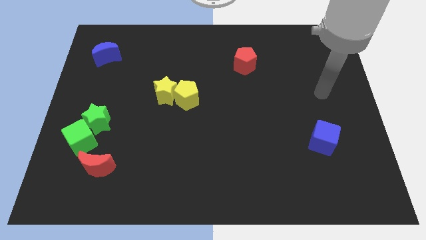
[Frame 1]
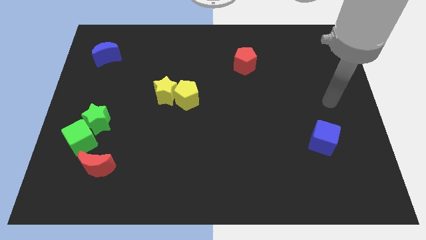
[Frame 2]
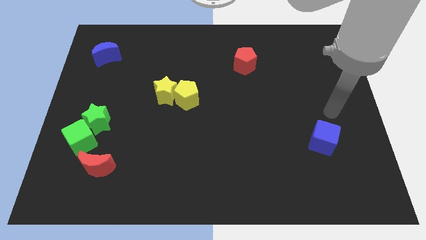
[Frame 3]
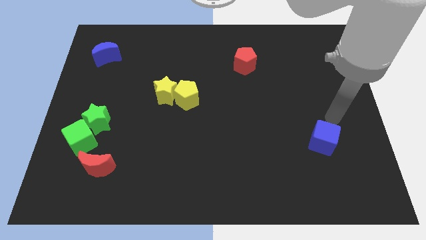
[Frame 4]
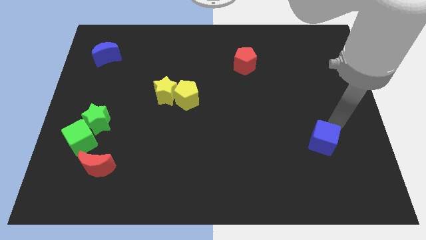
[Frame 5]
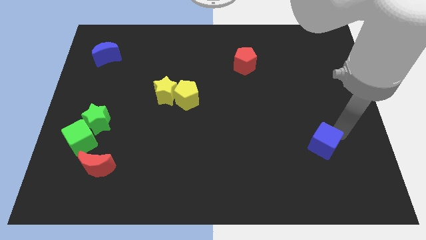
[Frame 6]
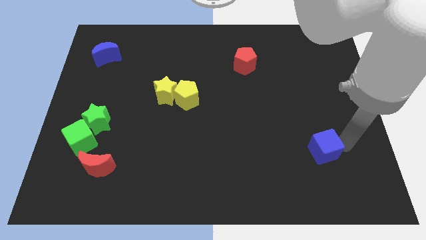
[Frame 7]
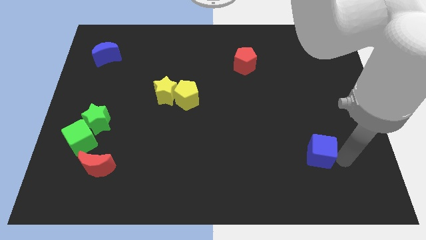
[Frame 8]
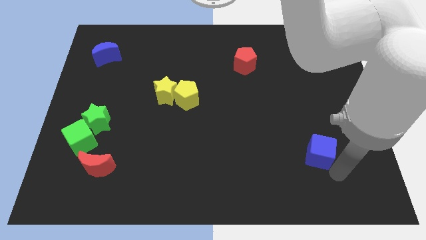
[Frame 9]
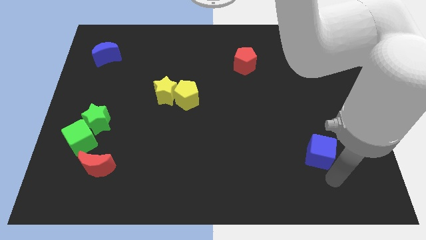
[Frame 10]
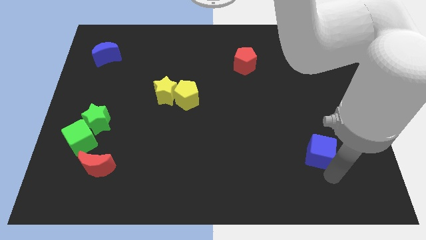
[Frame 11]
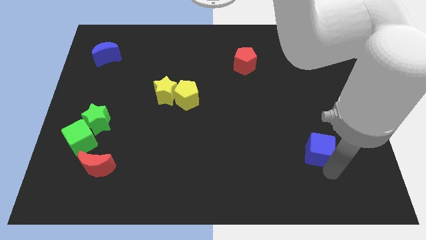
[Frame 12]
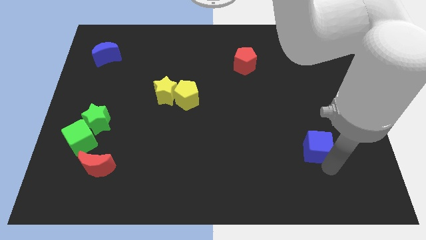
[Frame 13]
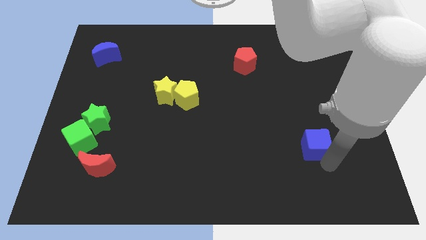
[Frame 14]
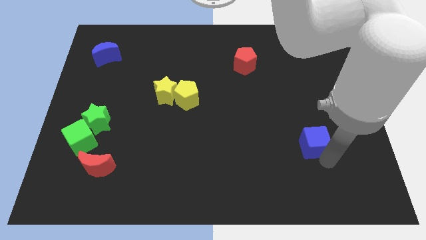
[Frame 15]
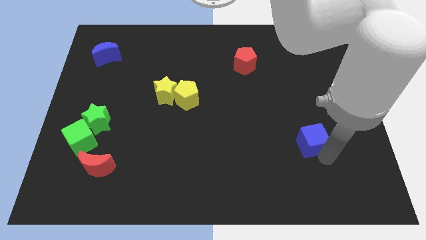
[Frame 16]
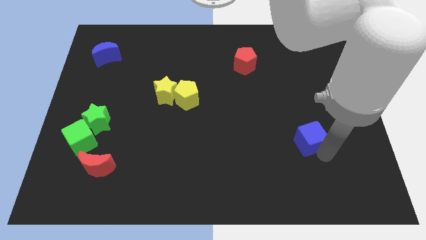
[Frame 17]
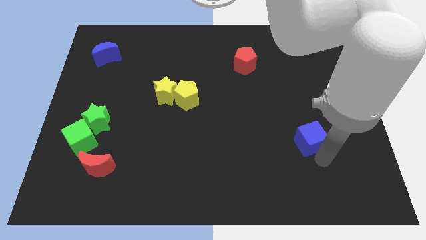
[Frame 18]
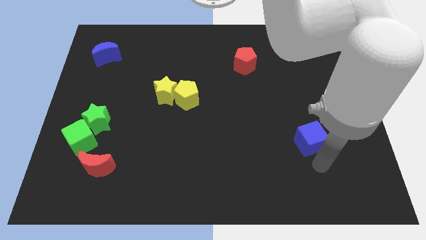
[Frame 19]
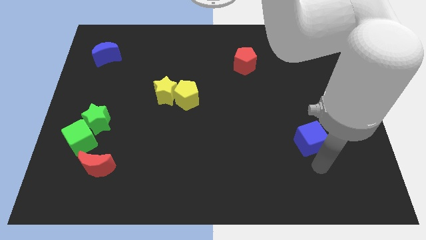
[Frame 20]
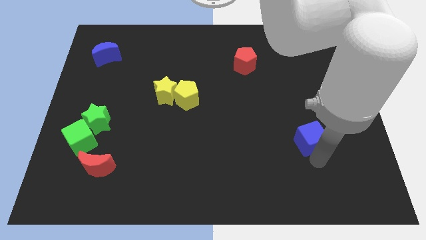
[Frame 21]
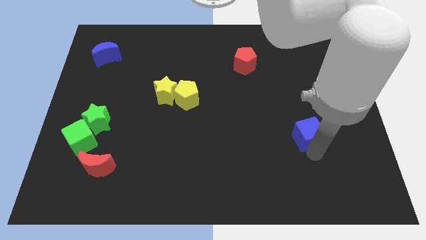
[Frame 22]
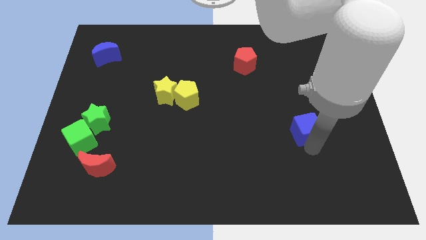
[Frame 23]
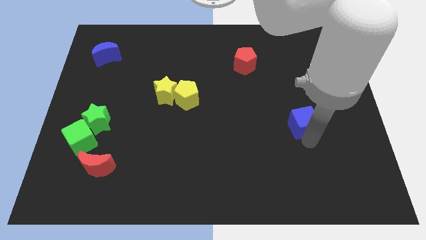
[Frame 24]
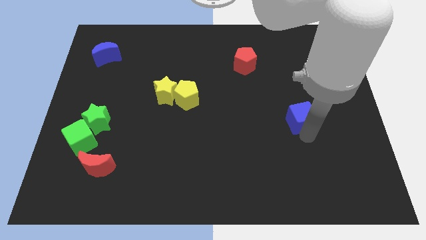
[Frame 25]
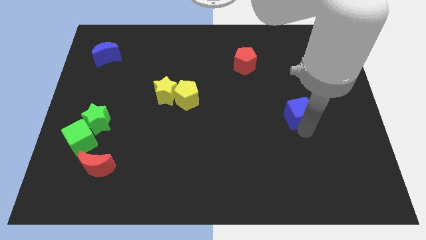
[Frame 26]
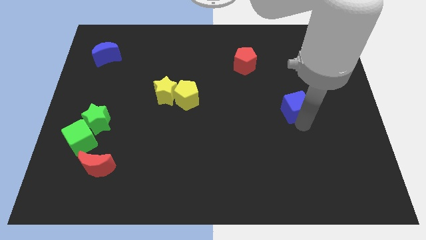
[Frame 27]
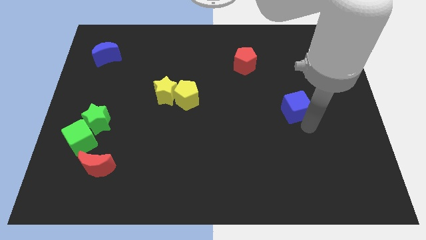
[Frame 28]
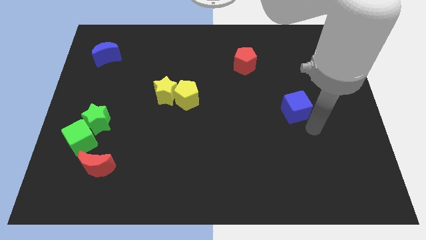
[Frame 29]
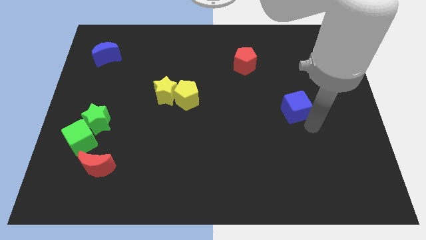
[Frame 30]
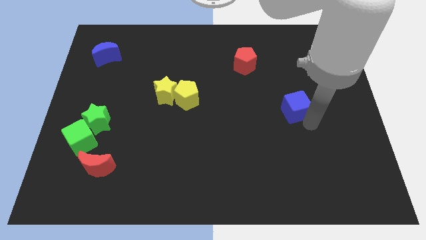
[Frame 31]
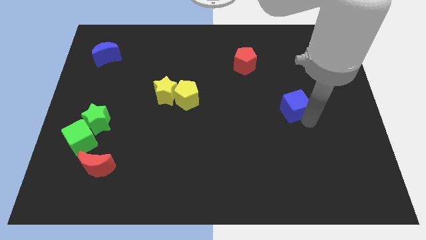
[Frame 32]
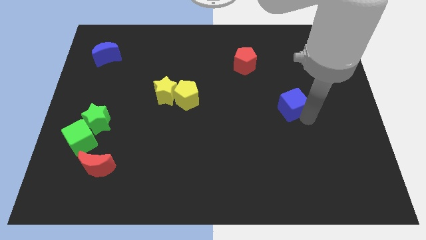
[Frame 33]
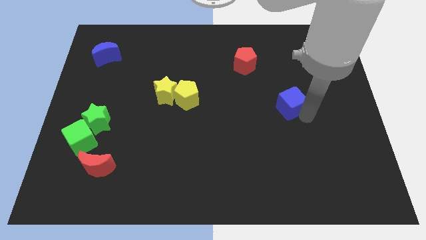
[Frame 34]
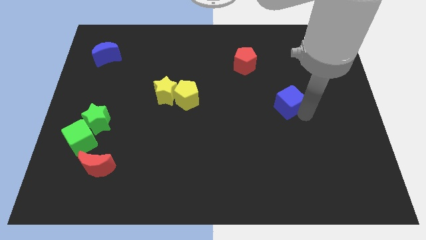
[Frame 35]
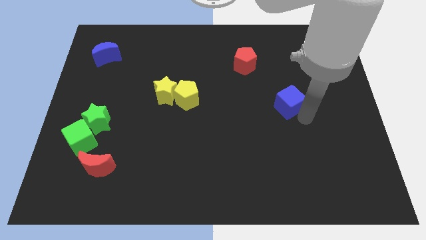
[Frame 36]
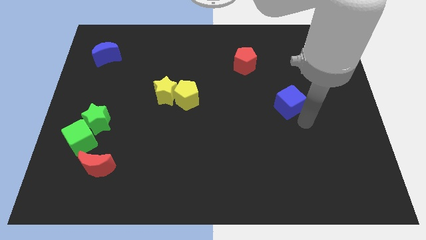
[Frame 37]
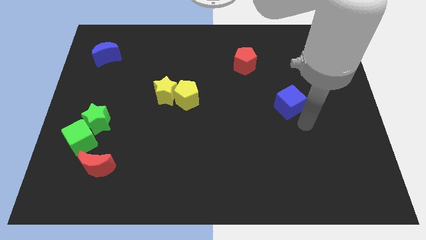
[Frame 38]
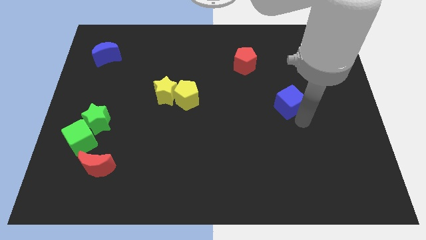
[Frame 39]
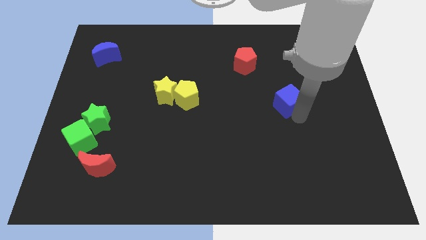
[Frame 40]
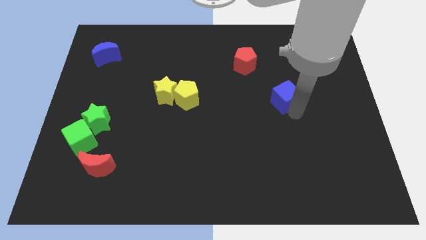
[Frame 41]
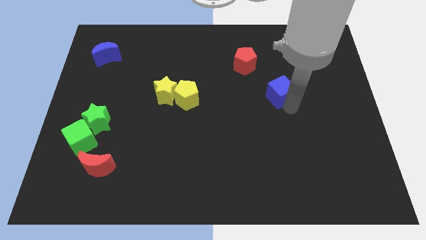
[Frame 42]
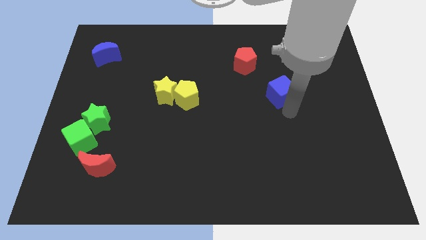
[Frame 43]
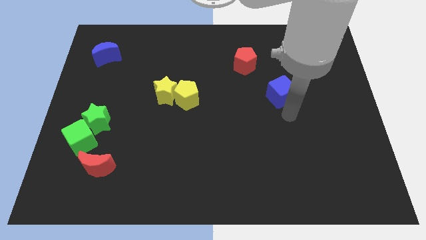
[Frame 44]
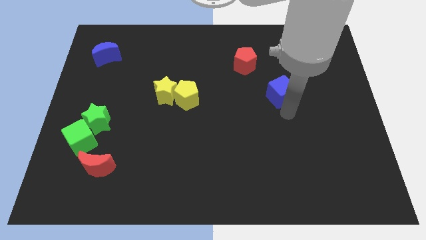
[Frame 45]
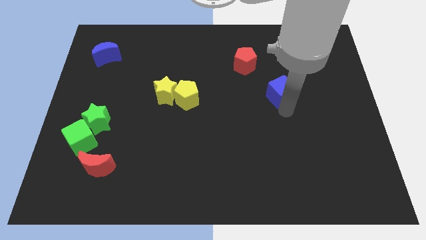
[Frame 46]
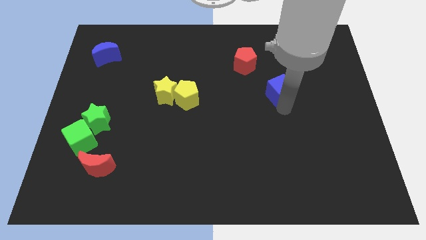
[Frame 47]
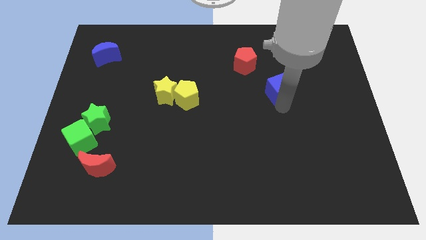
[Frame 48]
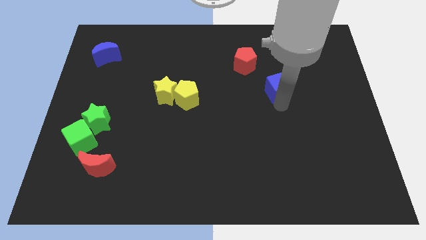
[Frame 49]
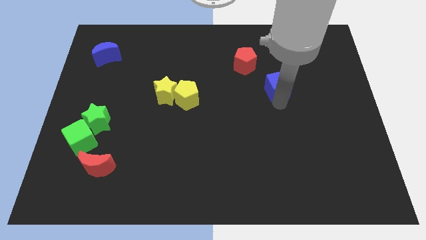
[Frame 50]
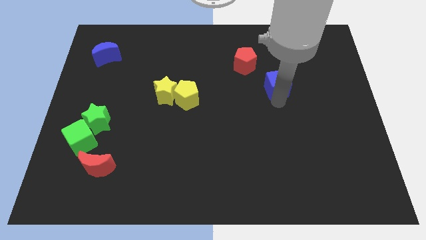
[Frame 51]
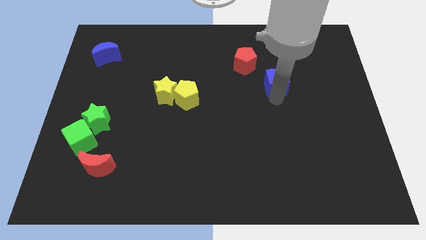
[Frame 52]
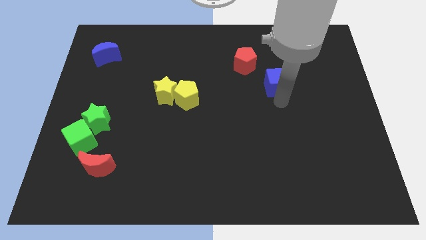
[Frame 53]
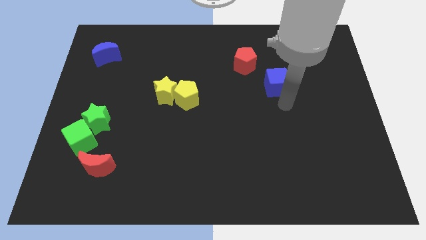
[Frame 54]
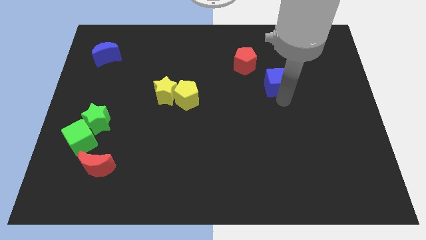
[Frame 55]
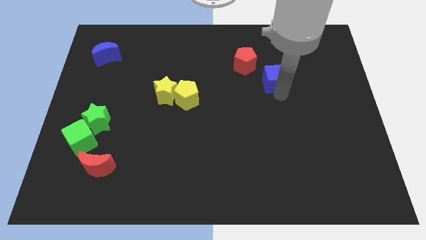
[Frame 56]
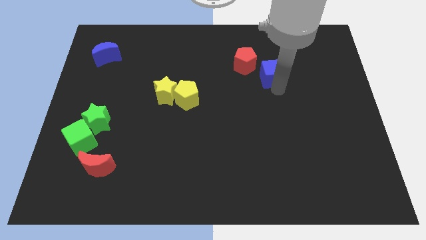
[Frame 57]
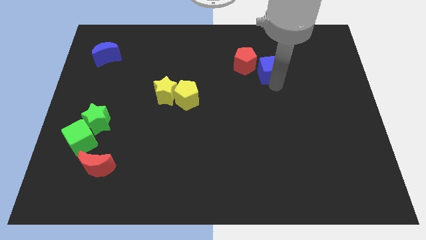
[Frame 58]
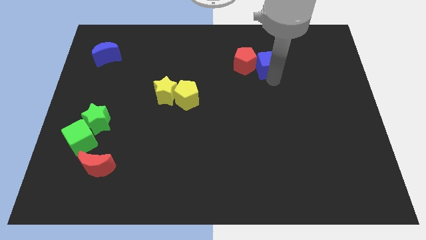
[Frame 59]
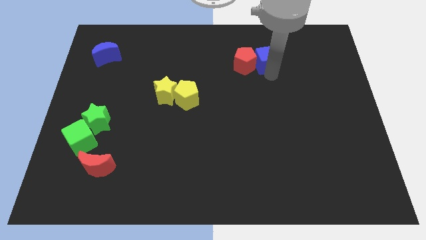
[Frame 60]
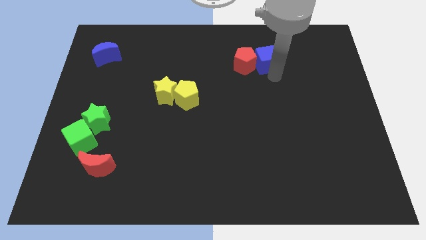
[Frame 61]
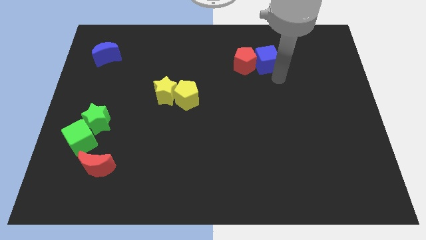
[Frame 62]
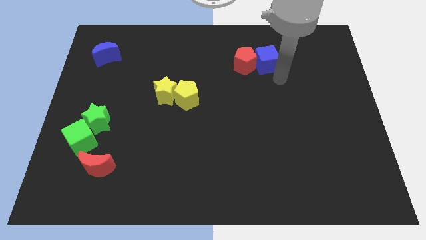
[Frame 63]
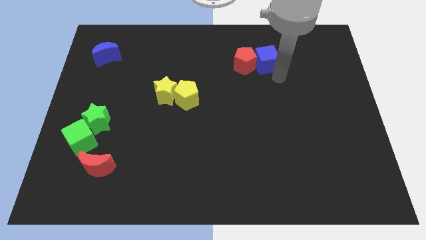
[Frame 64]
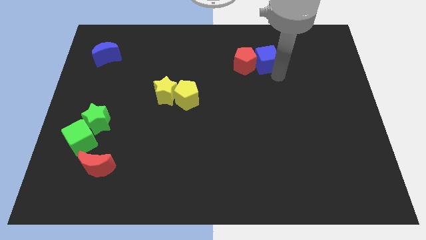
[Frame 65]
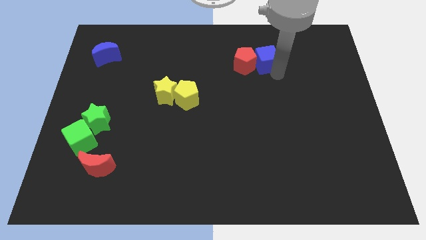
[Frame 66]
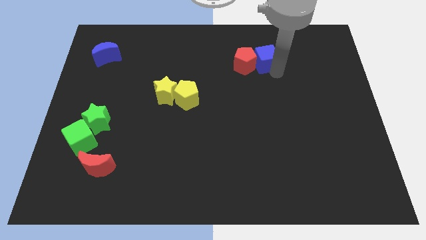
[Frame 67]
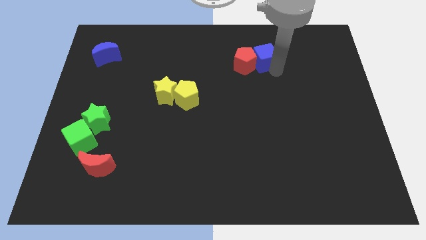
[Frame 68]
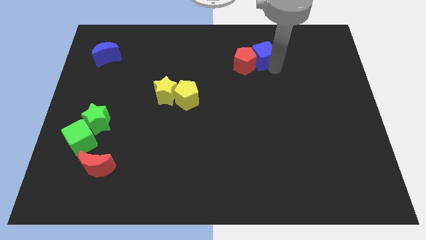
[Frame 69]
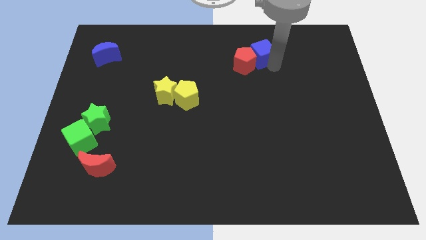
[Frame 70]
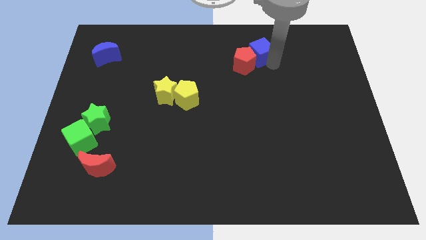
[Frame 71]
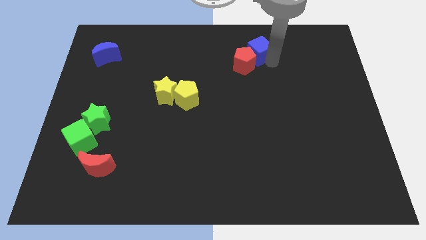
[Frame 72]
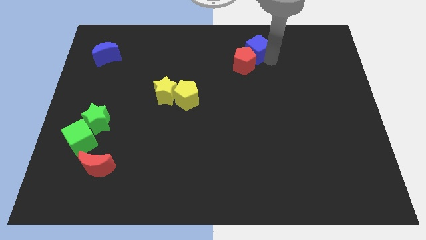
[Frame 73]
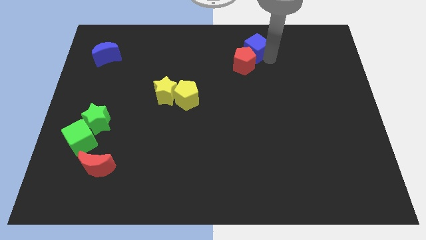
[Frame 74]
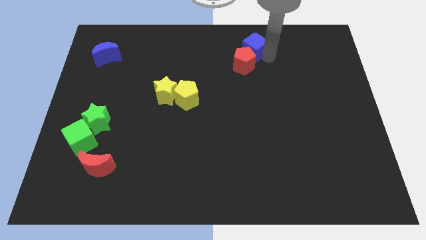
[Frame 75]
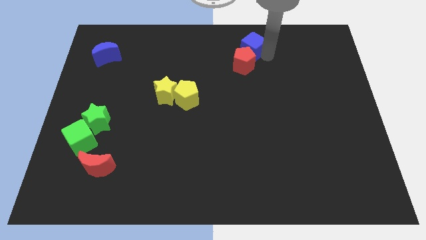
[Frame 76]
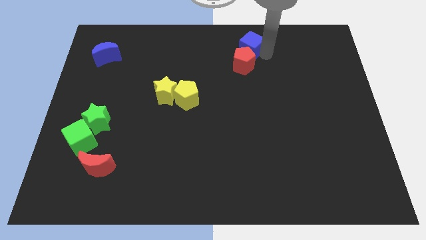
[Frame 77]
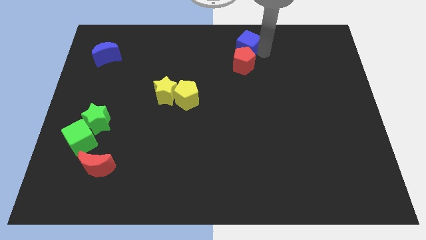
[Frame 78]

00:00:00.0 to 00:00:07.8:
slide the blue cube to the top
